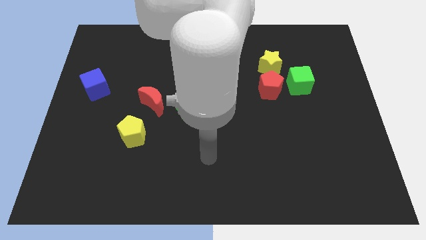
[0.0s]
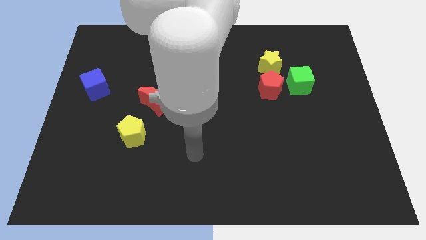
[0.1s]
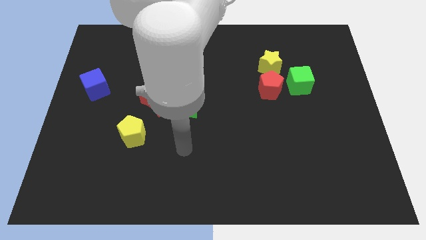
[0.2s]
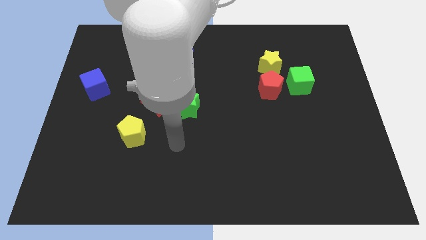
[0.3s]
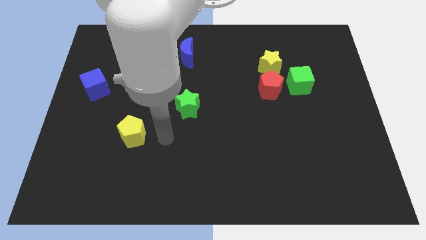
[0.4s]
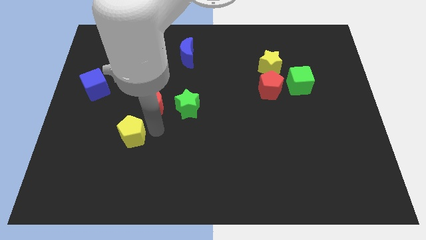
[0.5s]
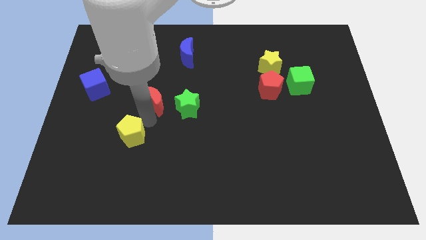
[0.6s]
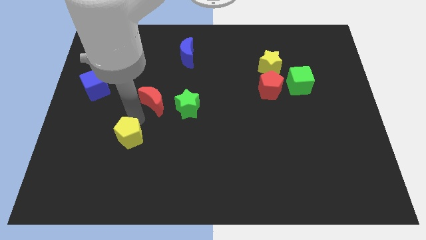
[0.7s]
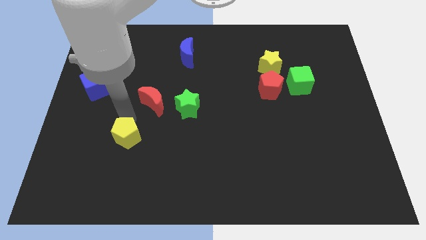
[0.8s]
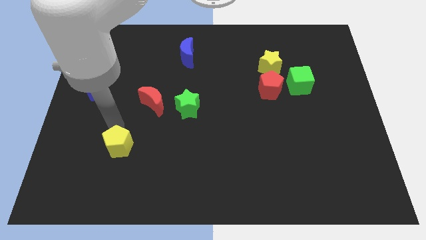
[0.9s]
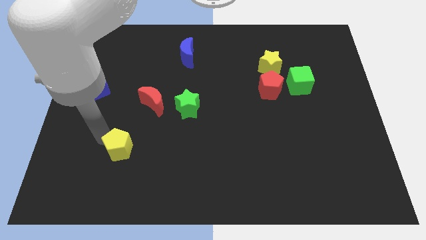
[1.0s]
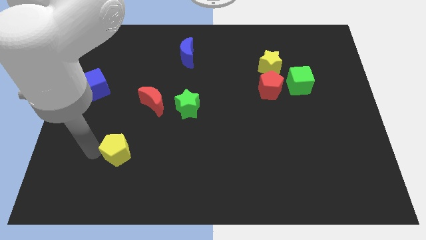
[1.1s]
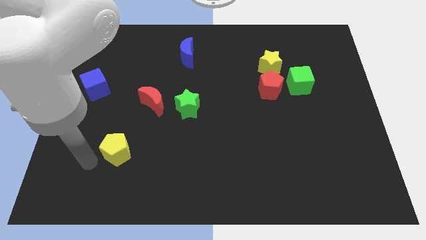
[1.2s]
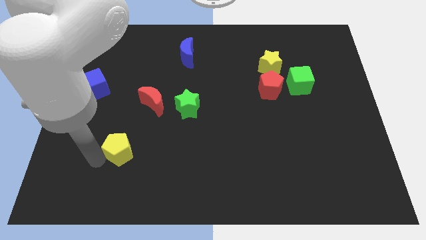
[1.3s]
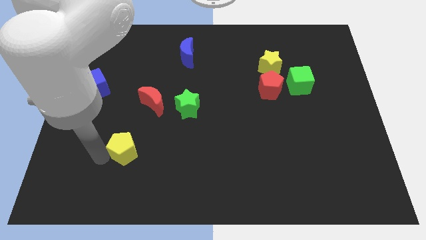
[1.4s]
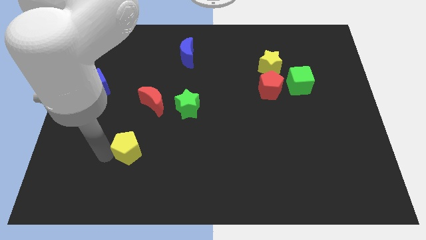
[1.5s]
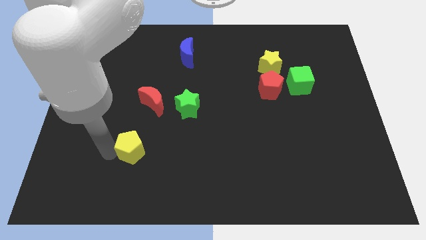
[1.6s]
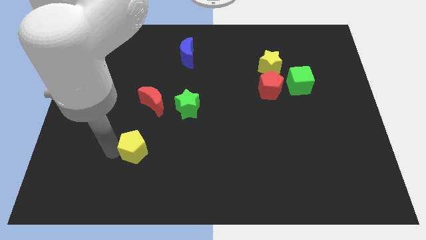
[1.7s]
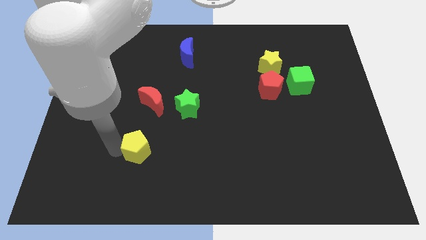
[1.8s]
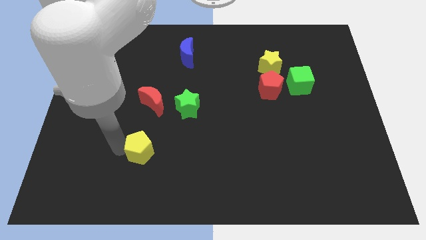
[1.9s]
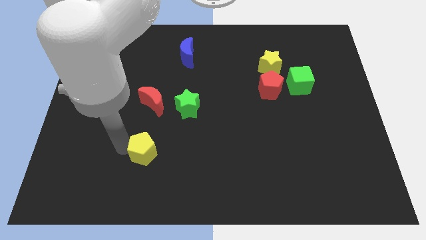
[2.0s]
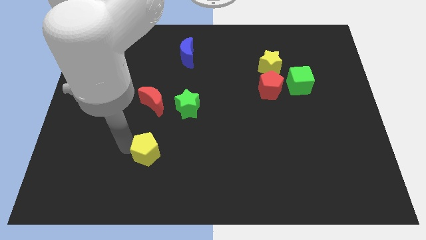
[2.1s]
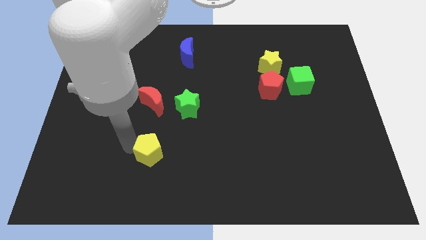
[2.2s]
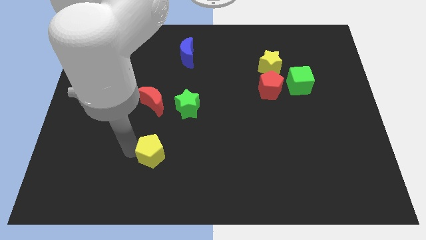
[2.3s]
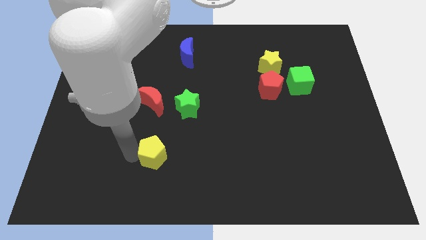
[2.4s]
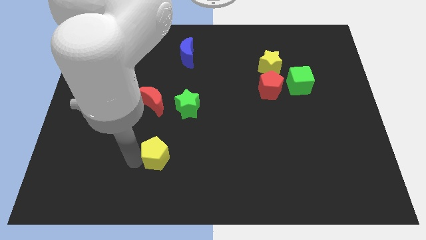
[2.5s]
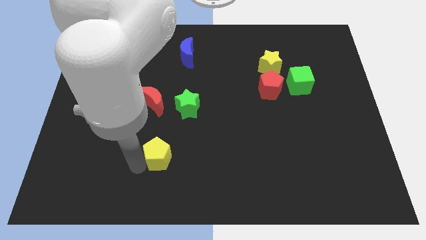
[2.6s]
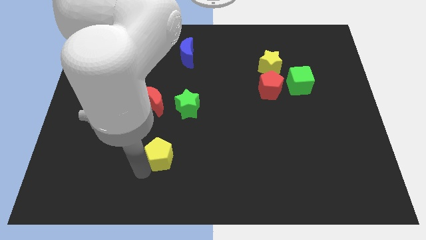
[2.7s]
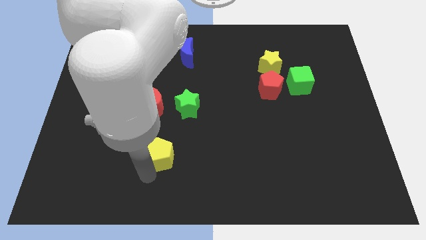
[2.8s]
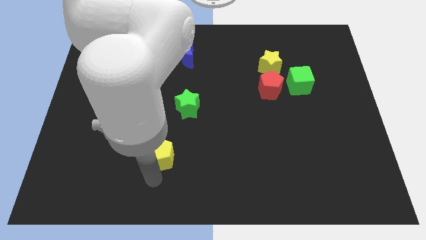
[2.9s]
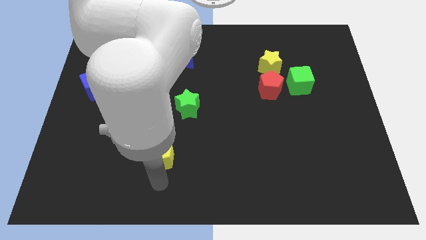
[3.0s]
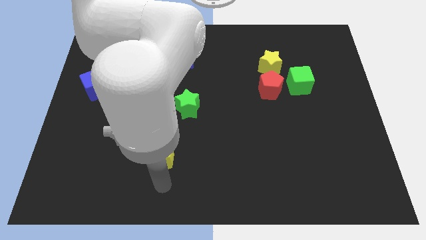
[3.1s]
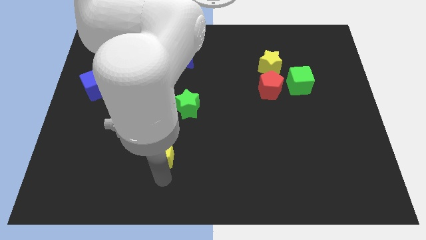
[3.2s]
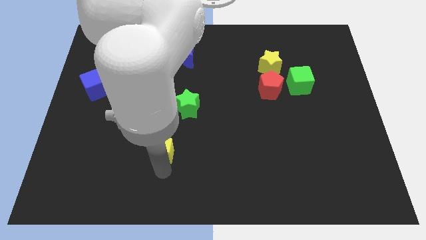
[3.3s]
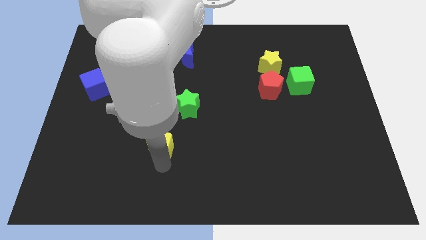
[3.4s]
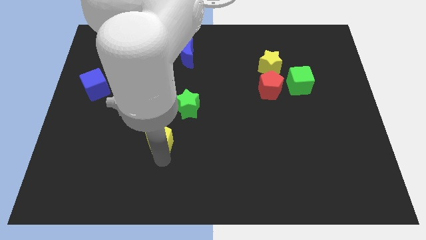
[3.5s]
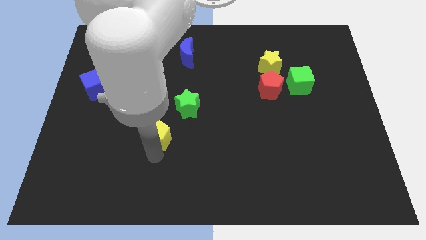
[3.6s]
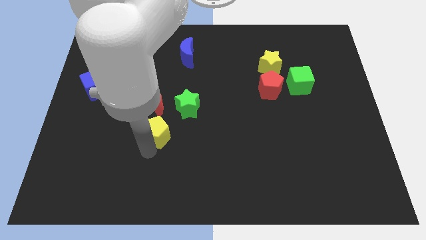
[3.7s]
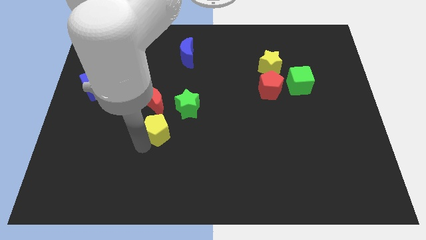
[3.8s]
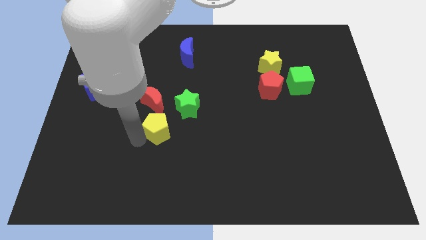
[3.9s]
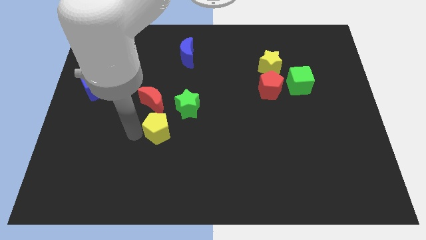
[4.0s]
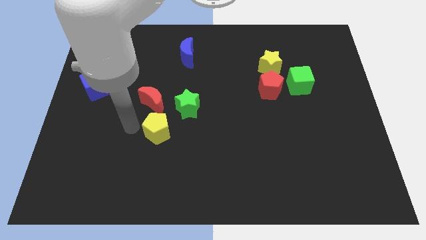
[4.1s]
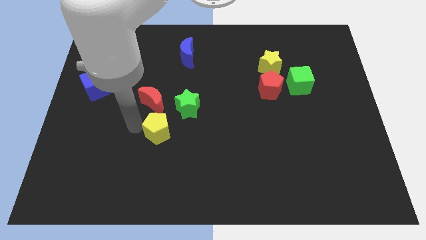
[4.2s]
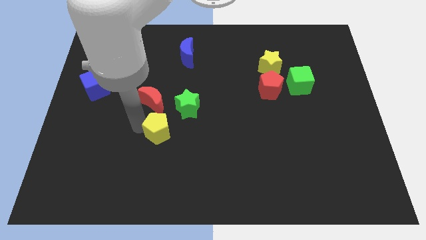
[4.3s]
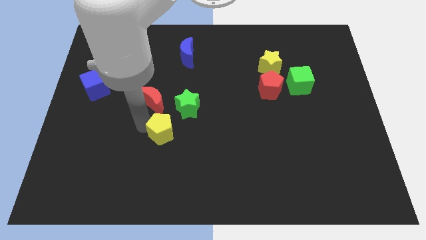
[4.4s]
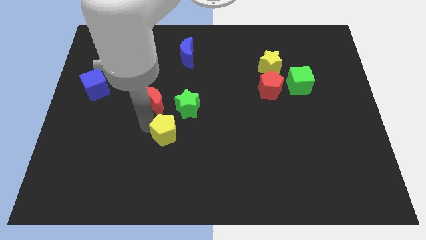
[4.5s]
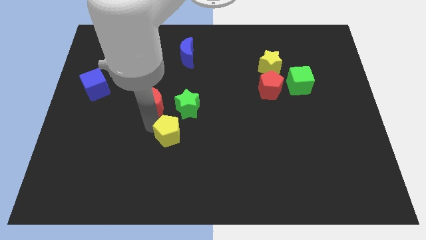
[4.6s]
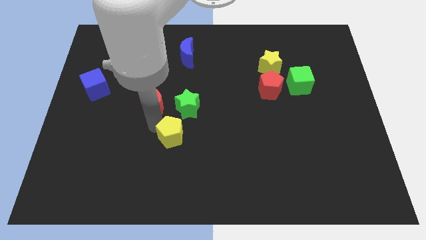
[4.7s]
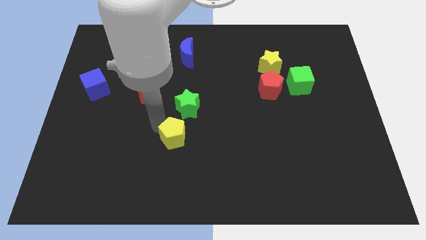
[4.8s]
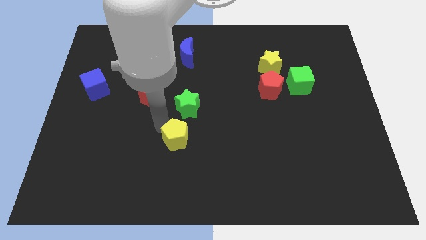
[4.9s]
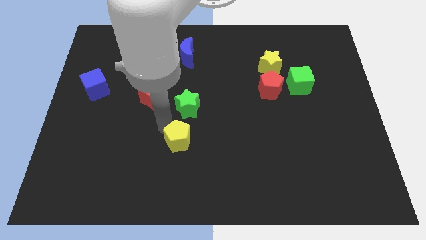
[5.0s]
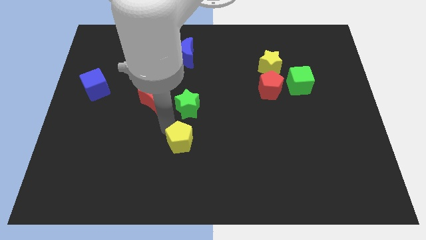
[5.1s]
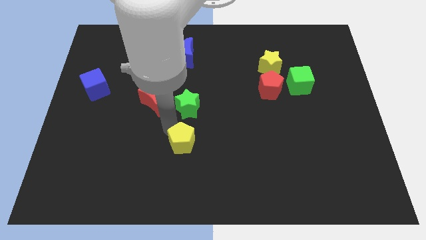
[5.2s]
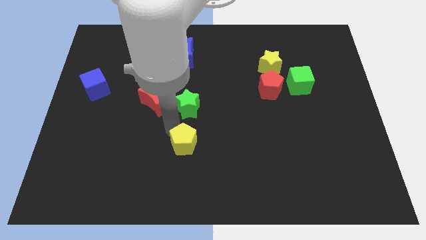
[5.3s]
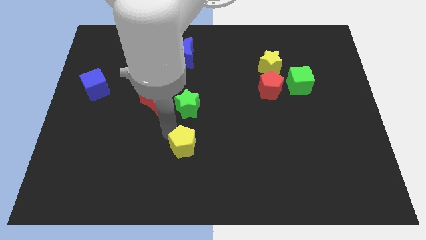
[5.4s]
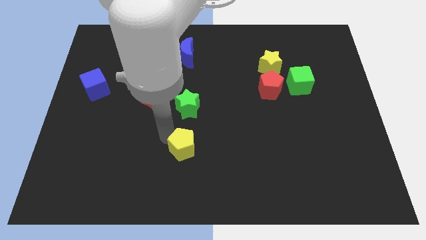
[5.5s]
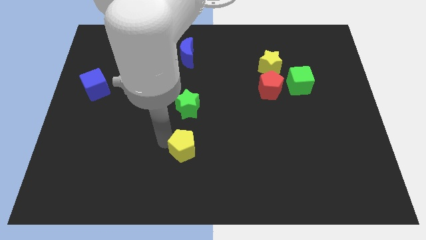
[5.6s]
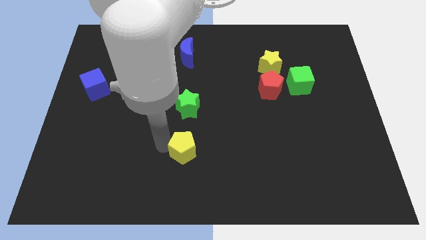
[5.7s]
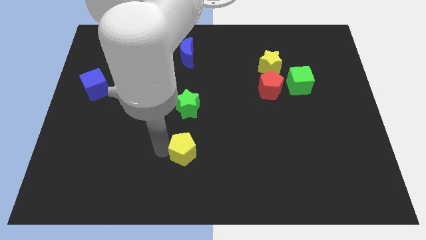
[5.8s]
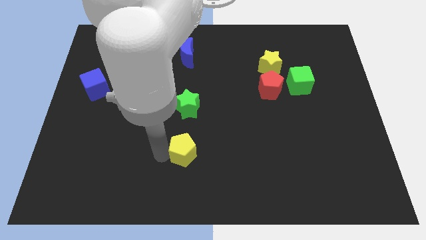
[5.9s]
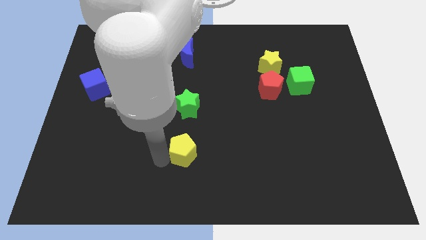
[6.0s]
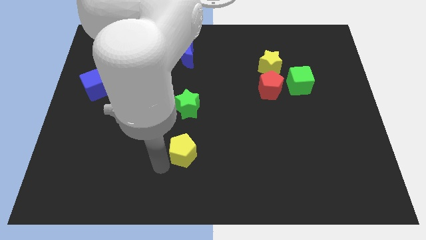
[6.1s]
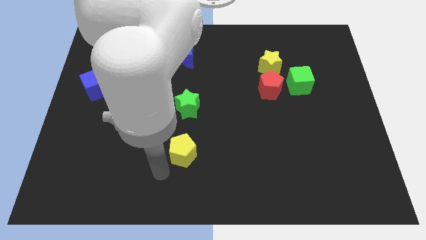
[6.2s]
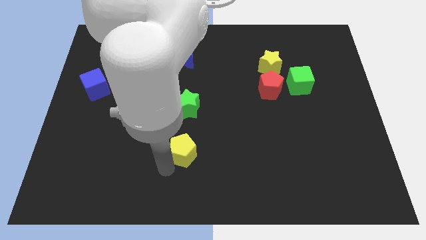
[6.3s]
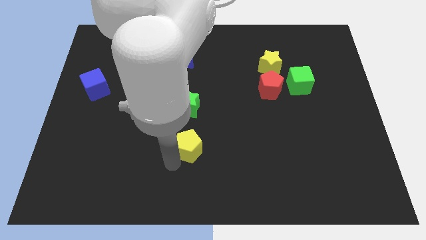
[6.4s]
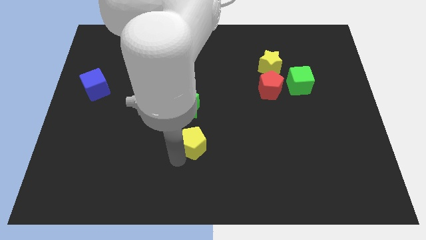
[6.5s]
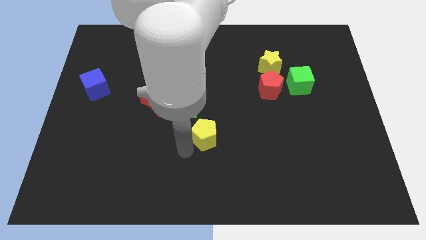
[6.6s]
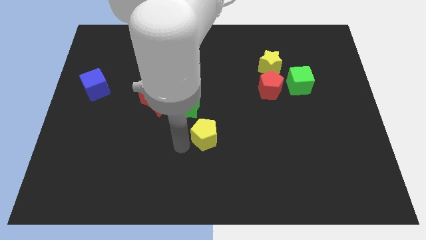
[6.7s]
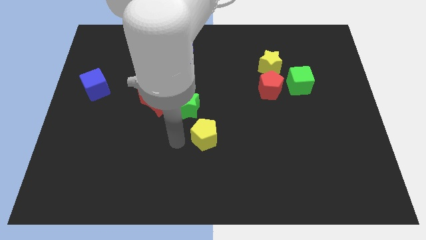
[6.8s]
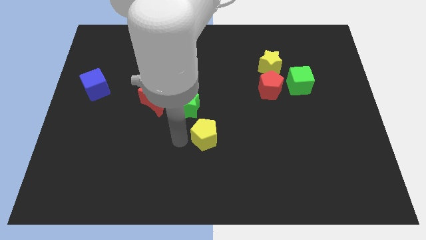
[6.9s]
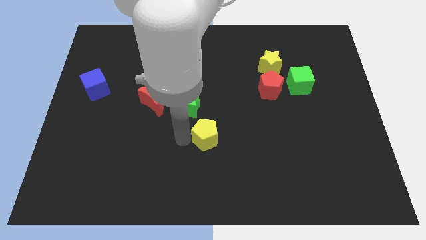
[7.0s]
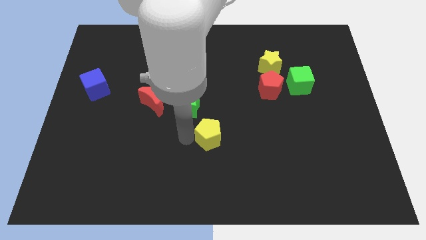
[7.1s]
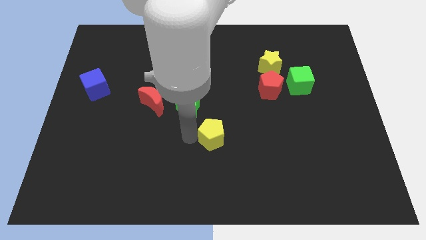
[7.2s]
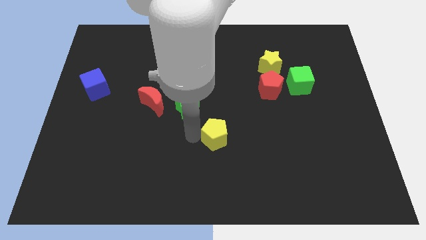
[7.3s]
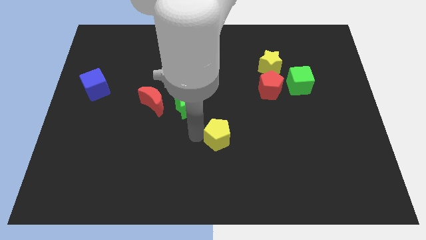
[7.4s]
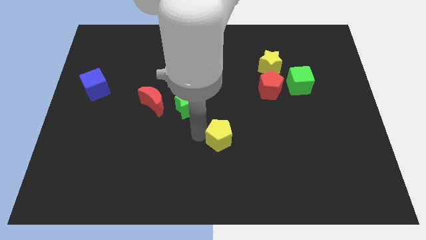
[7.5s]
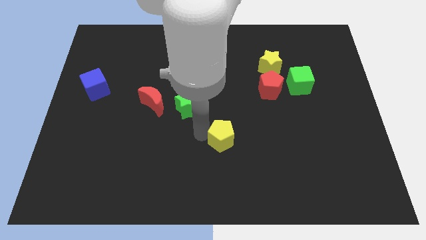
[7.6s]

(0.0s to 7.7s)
push the yellow pentagon right

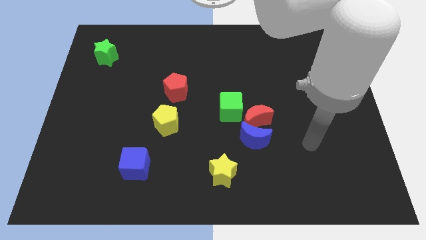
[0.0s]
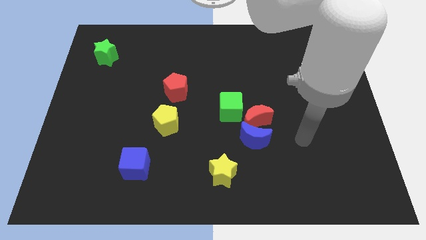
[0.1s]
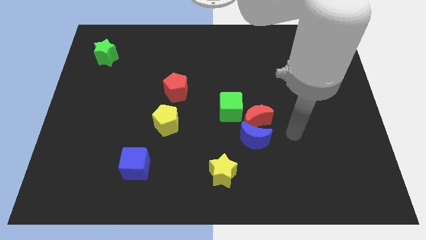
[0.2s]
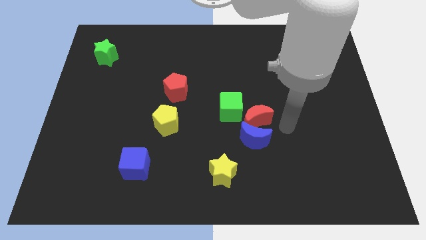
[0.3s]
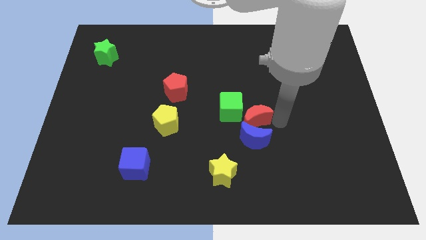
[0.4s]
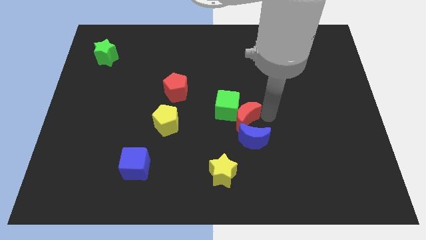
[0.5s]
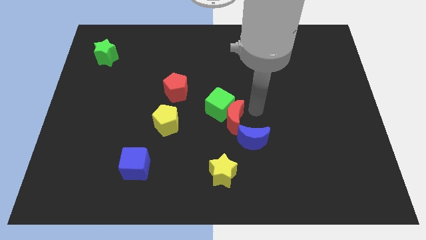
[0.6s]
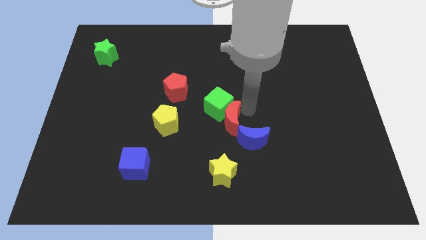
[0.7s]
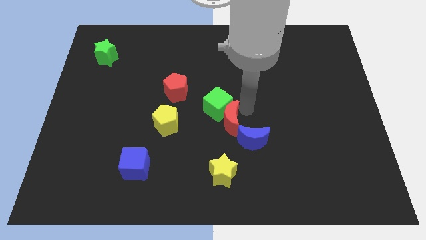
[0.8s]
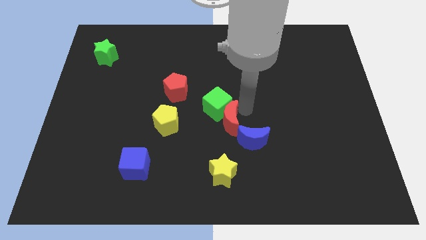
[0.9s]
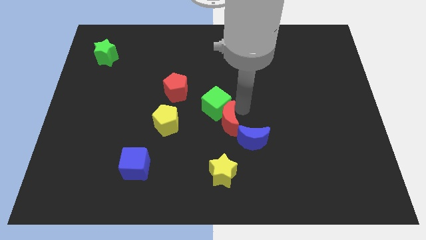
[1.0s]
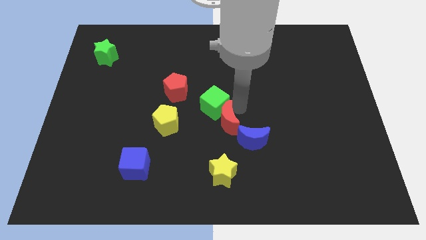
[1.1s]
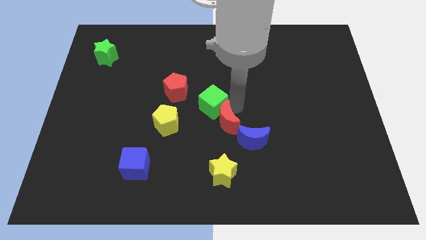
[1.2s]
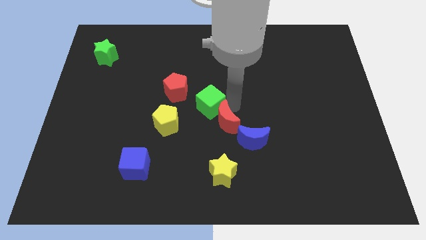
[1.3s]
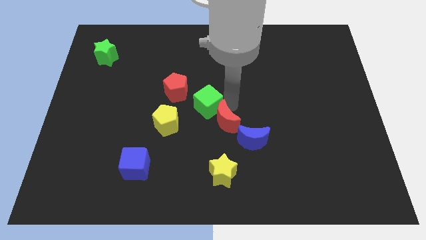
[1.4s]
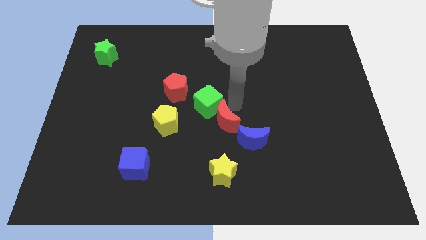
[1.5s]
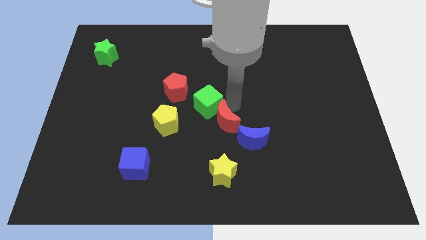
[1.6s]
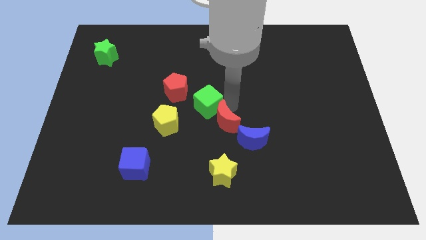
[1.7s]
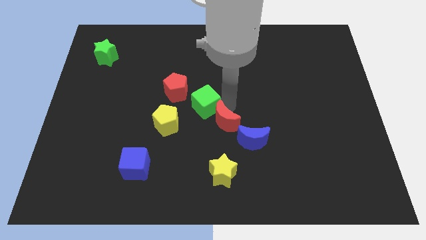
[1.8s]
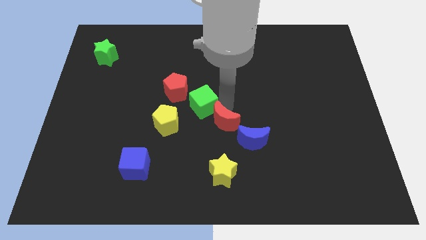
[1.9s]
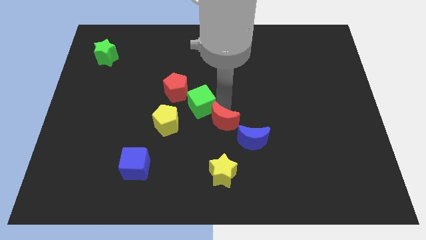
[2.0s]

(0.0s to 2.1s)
slightly slide the green cube to the left
